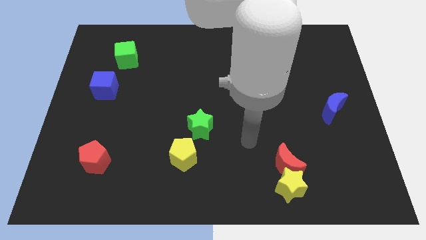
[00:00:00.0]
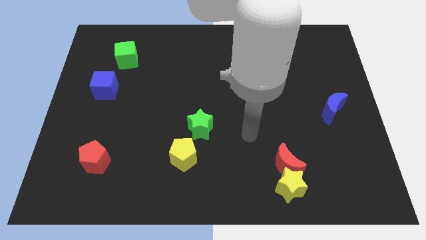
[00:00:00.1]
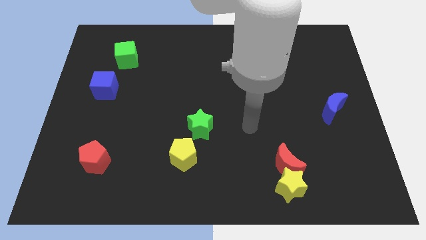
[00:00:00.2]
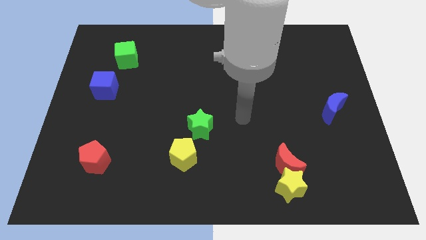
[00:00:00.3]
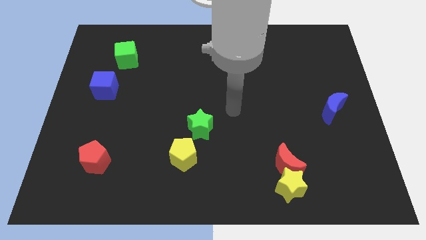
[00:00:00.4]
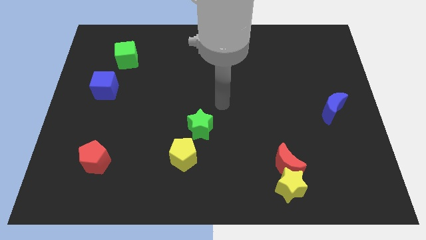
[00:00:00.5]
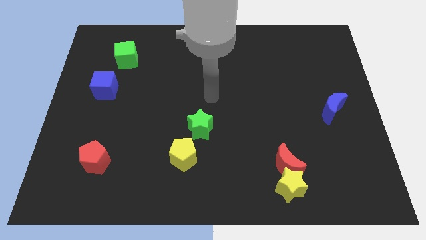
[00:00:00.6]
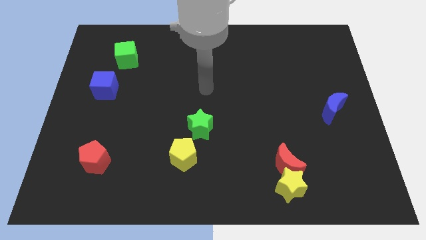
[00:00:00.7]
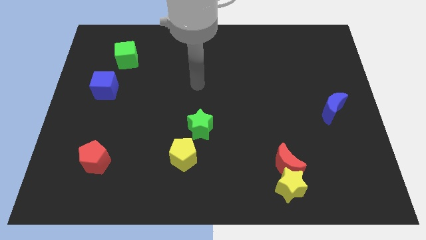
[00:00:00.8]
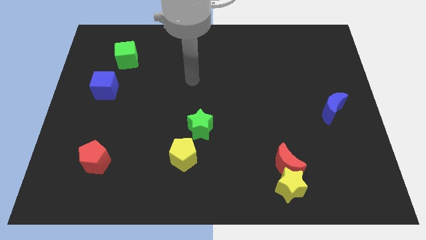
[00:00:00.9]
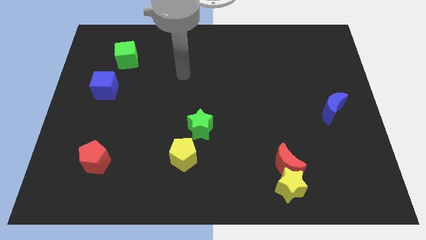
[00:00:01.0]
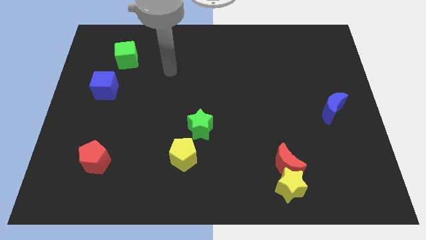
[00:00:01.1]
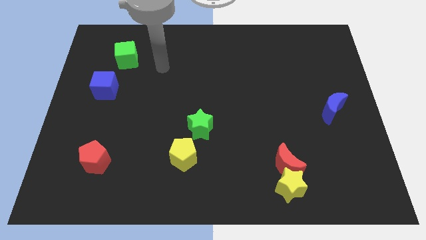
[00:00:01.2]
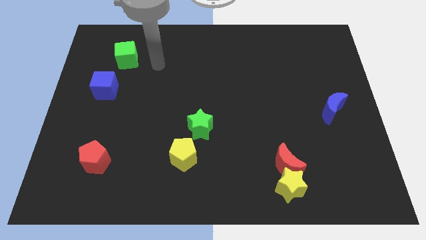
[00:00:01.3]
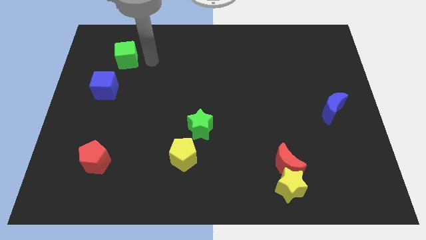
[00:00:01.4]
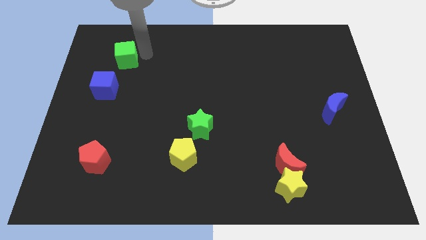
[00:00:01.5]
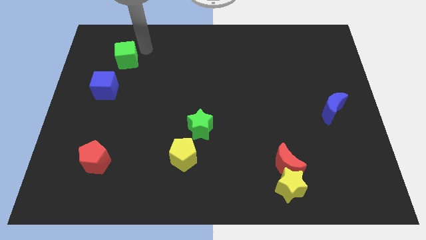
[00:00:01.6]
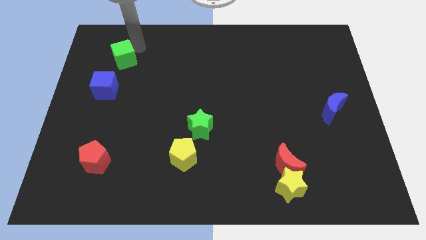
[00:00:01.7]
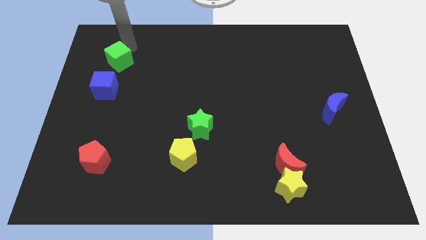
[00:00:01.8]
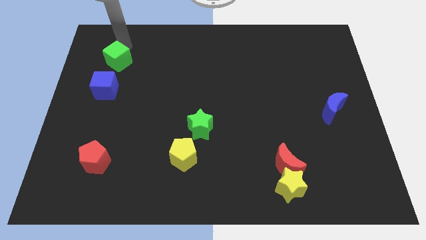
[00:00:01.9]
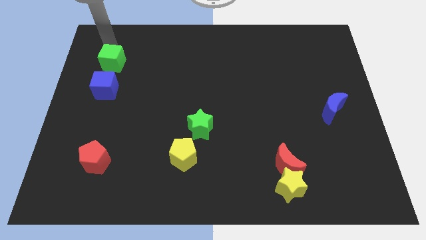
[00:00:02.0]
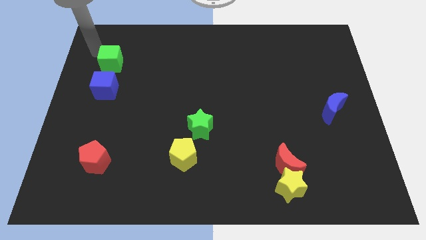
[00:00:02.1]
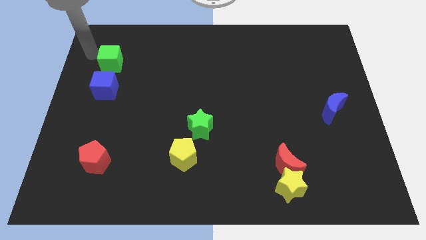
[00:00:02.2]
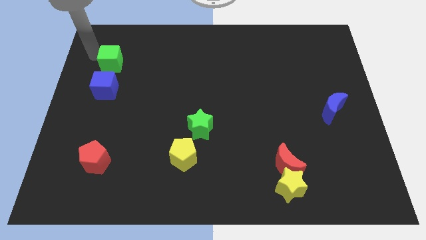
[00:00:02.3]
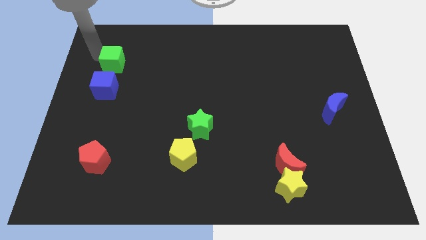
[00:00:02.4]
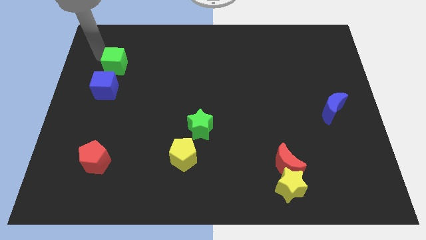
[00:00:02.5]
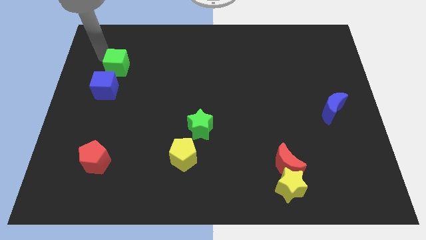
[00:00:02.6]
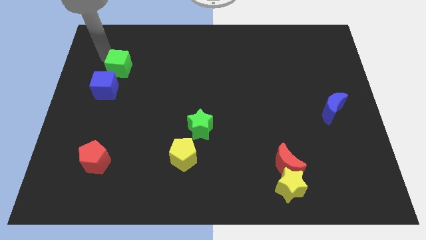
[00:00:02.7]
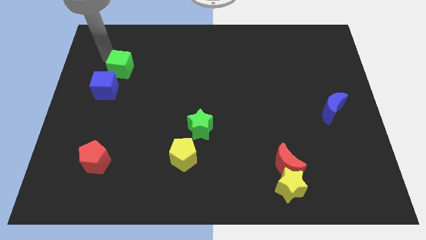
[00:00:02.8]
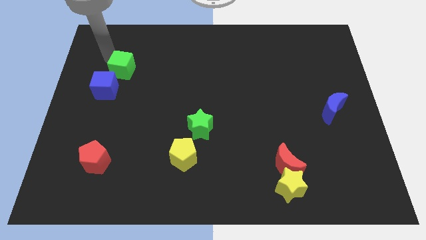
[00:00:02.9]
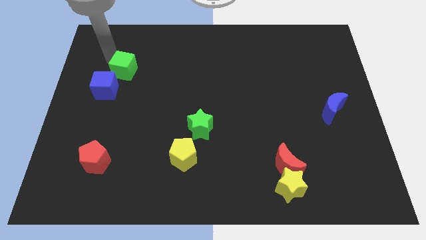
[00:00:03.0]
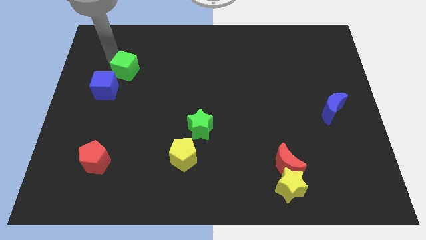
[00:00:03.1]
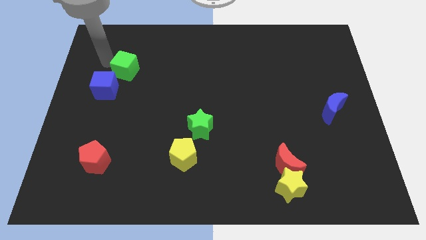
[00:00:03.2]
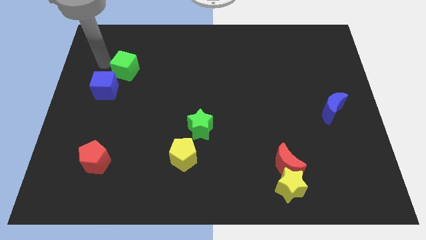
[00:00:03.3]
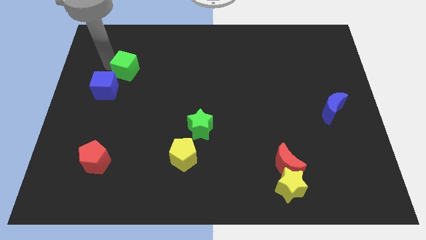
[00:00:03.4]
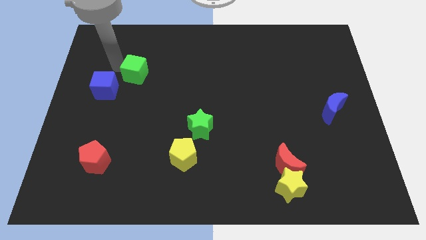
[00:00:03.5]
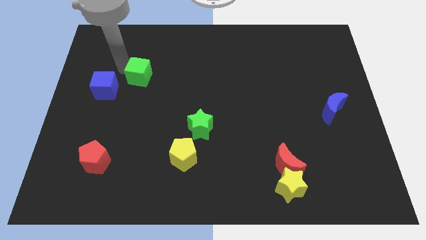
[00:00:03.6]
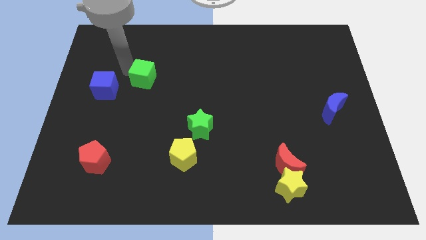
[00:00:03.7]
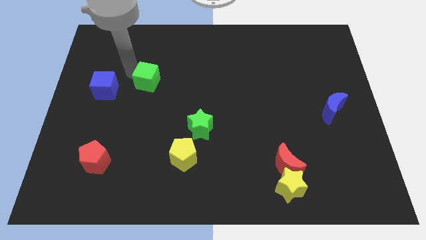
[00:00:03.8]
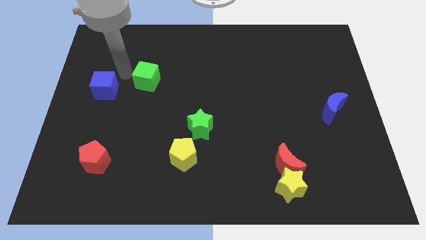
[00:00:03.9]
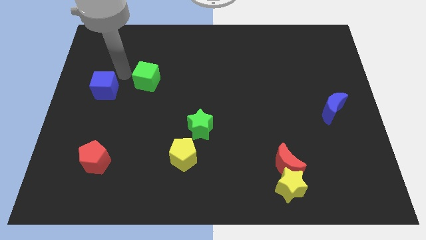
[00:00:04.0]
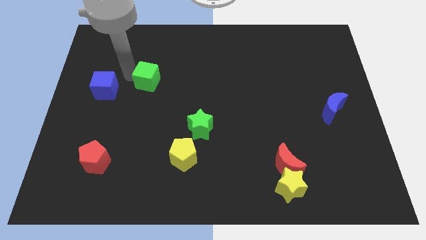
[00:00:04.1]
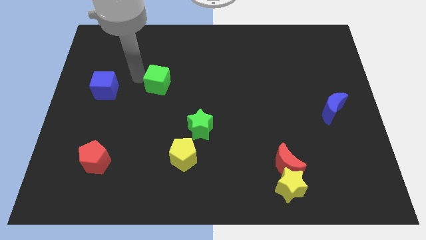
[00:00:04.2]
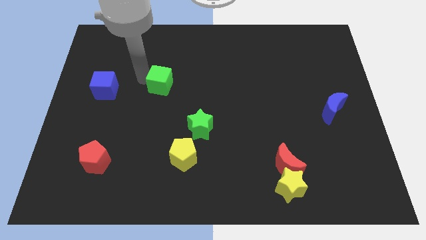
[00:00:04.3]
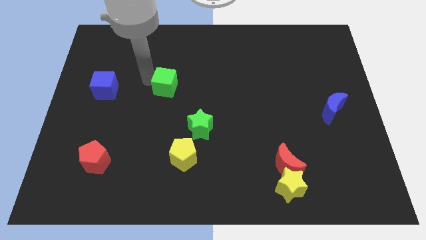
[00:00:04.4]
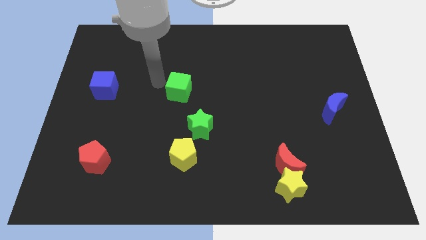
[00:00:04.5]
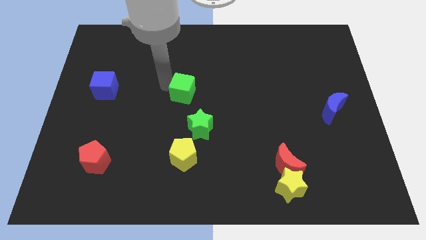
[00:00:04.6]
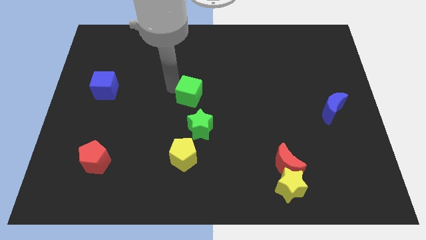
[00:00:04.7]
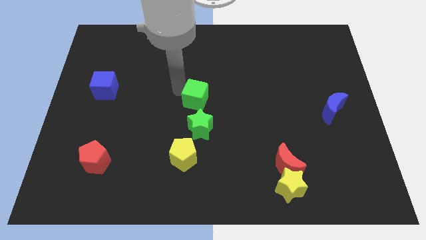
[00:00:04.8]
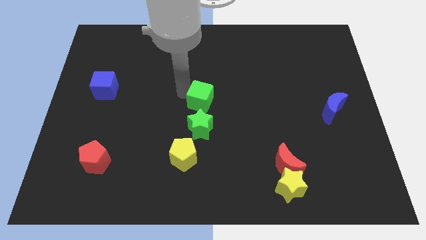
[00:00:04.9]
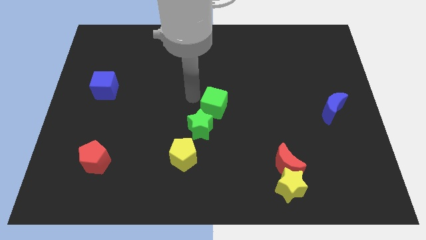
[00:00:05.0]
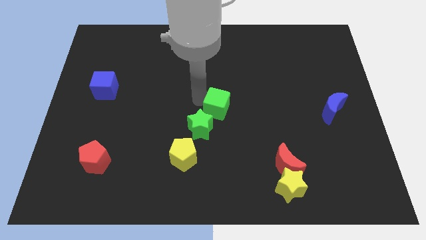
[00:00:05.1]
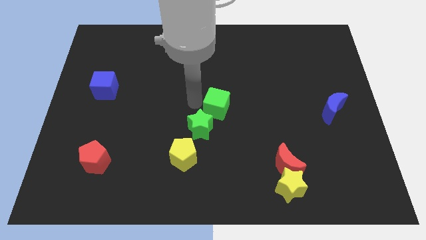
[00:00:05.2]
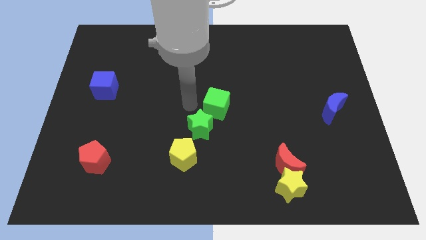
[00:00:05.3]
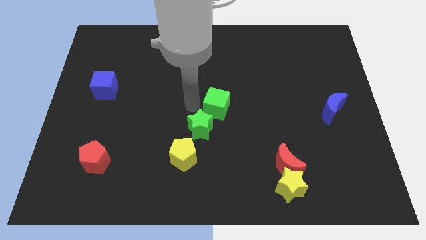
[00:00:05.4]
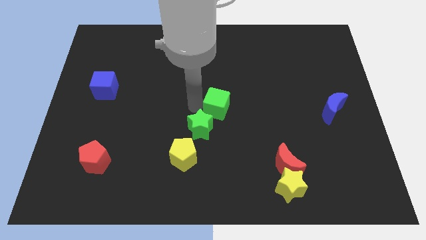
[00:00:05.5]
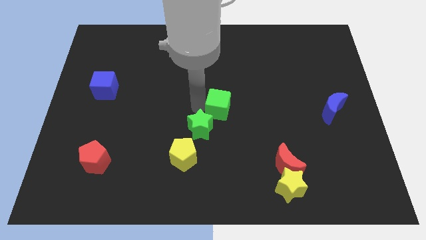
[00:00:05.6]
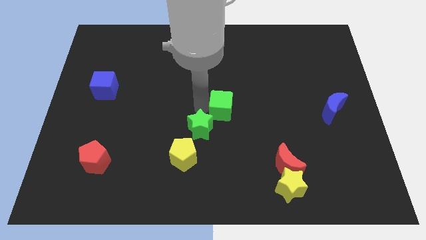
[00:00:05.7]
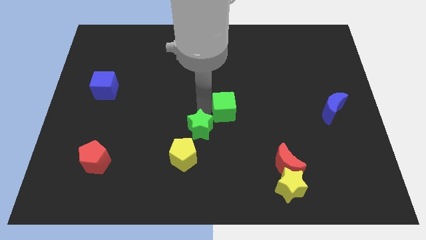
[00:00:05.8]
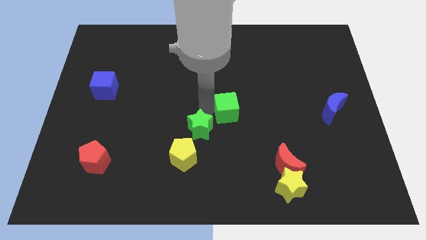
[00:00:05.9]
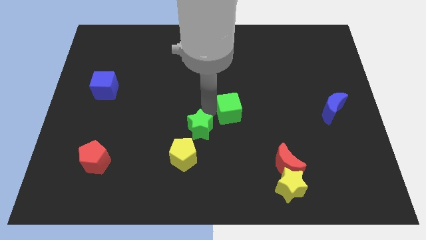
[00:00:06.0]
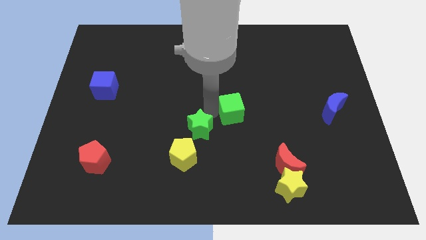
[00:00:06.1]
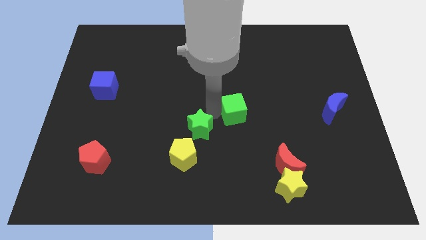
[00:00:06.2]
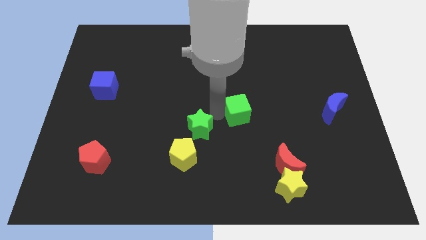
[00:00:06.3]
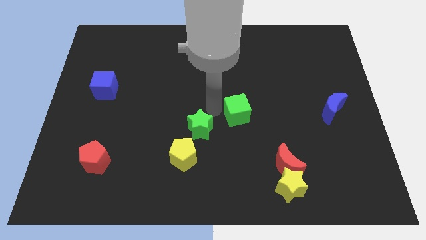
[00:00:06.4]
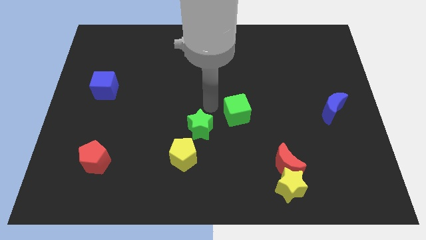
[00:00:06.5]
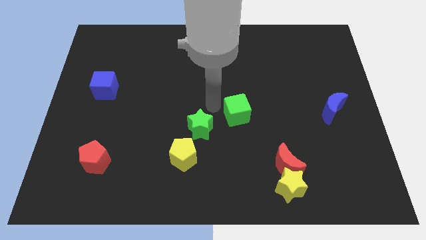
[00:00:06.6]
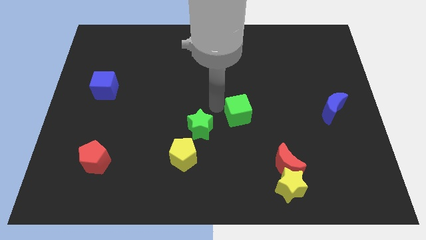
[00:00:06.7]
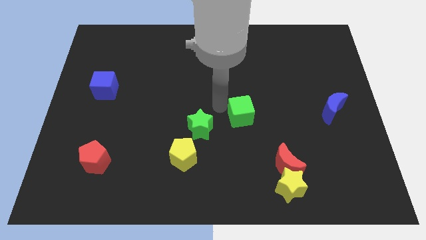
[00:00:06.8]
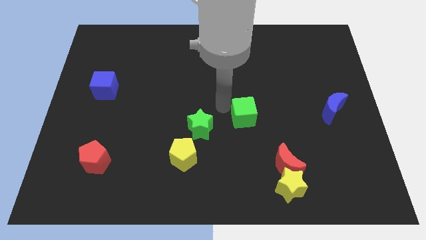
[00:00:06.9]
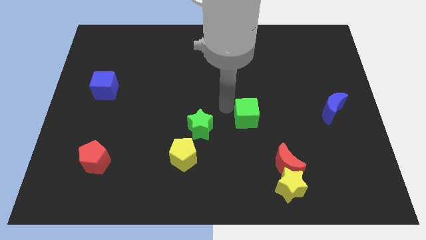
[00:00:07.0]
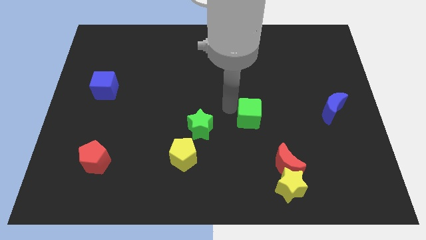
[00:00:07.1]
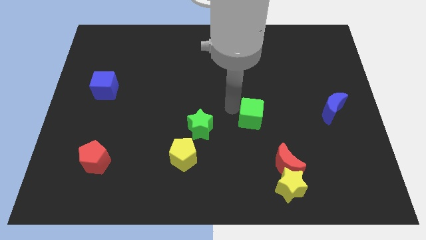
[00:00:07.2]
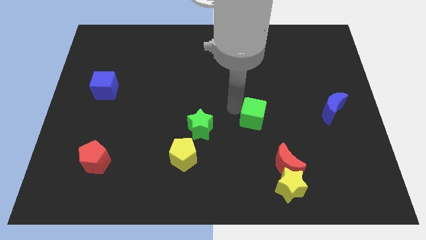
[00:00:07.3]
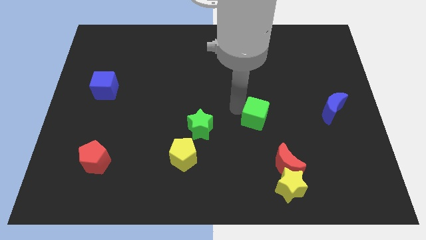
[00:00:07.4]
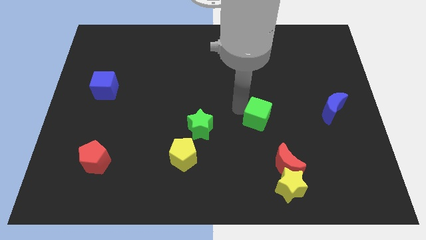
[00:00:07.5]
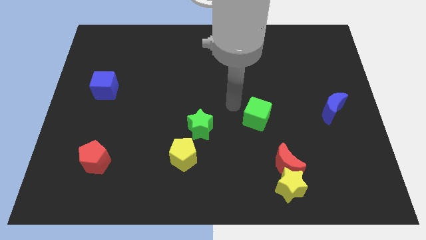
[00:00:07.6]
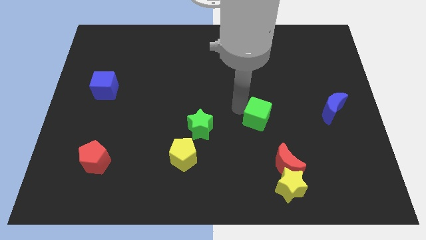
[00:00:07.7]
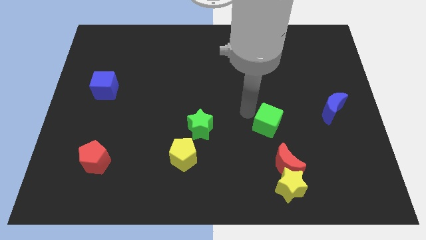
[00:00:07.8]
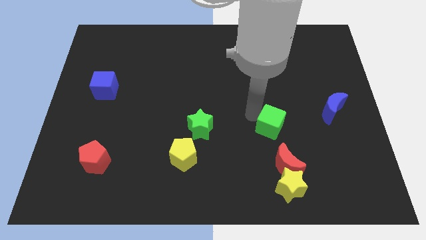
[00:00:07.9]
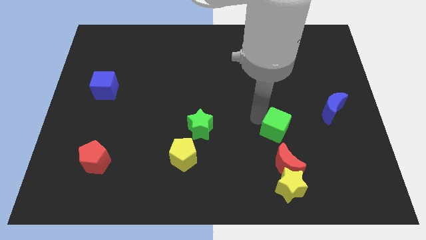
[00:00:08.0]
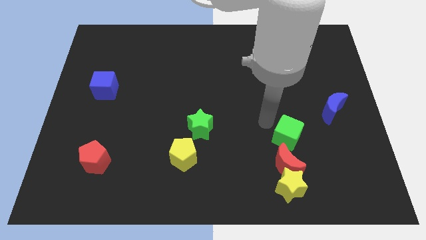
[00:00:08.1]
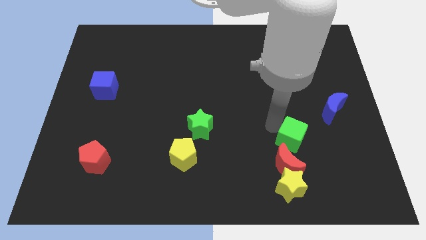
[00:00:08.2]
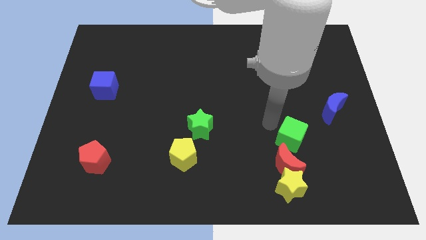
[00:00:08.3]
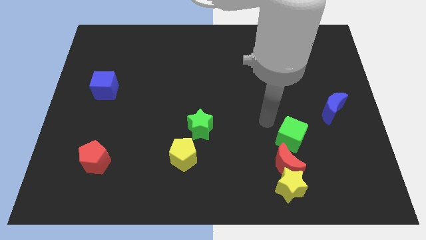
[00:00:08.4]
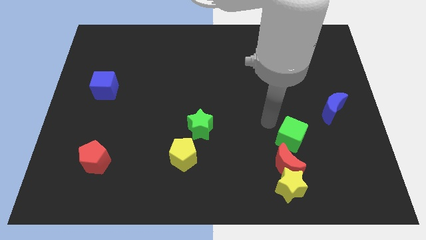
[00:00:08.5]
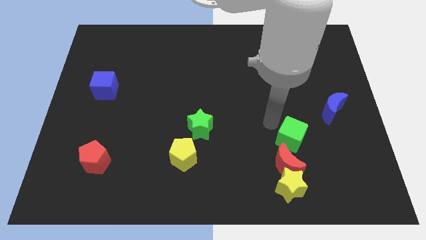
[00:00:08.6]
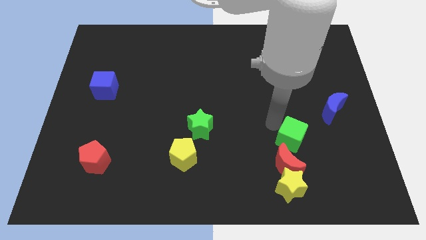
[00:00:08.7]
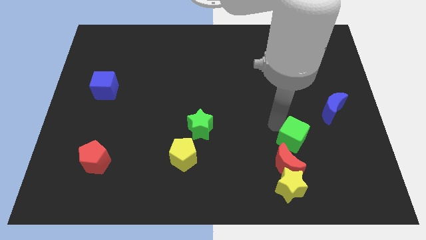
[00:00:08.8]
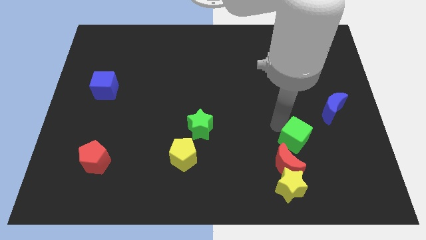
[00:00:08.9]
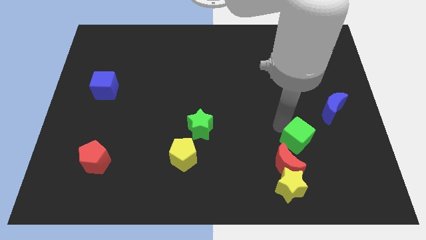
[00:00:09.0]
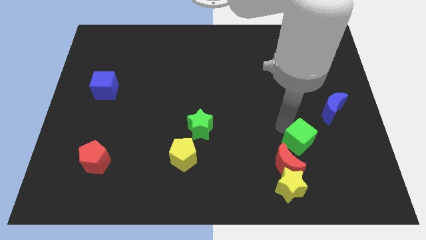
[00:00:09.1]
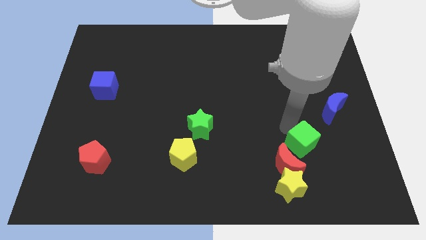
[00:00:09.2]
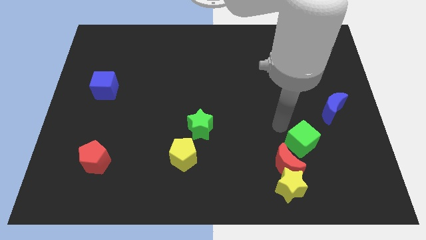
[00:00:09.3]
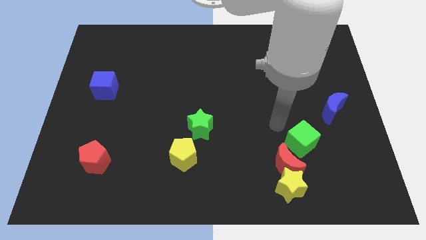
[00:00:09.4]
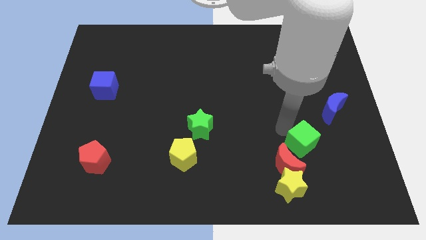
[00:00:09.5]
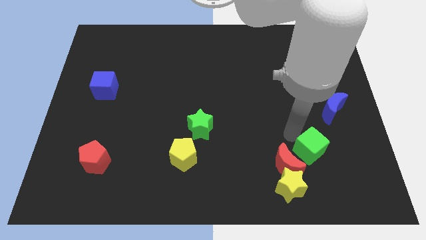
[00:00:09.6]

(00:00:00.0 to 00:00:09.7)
push the green cube to the right of the red moon
